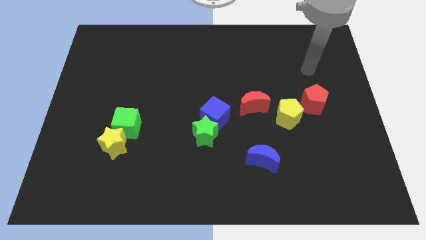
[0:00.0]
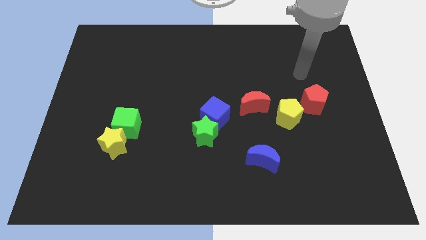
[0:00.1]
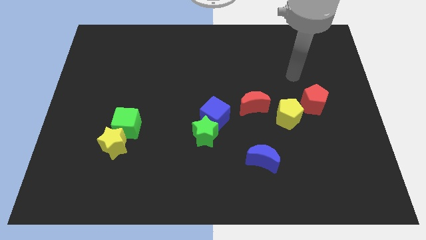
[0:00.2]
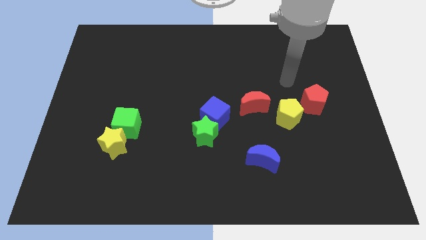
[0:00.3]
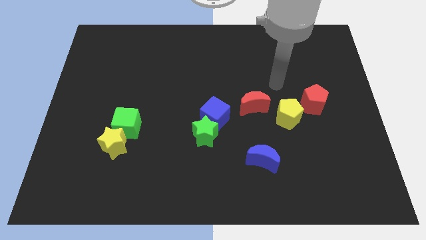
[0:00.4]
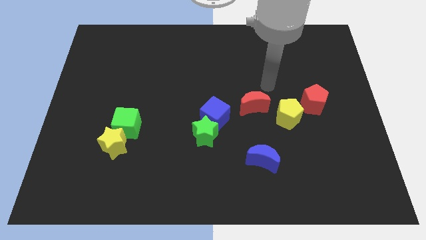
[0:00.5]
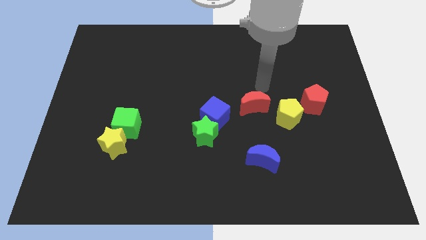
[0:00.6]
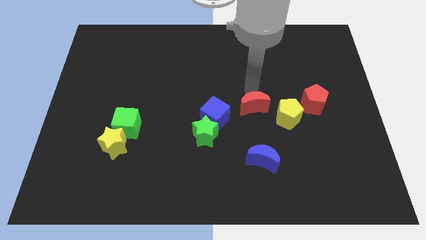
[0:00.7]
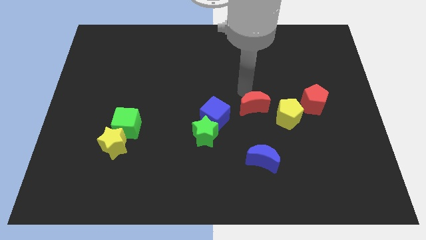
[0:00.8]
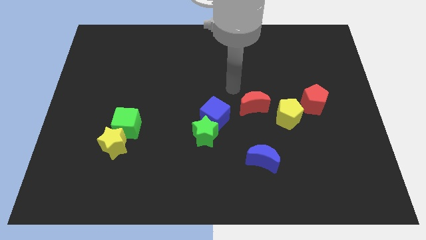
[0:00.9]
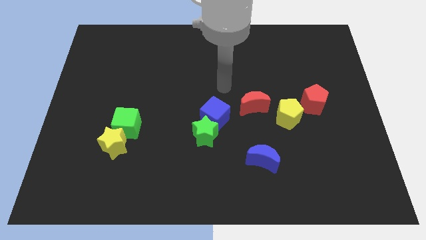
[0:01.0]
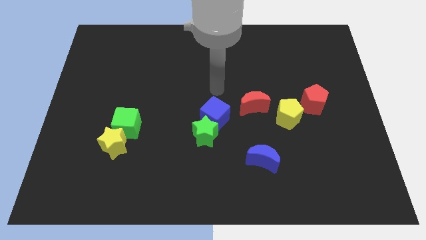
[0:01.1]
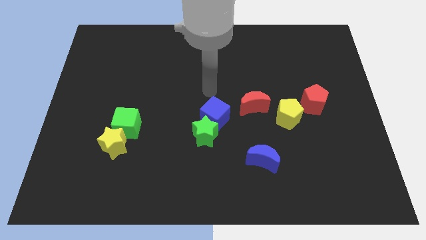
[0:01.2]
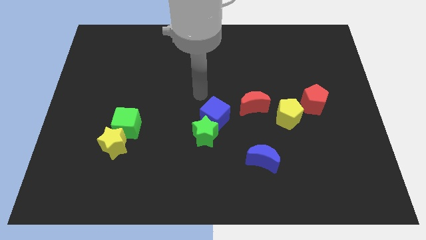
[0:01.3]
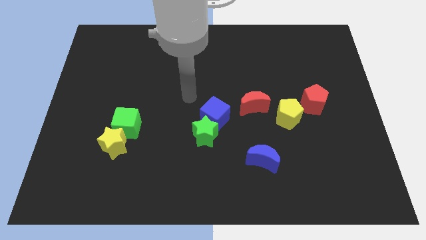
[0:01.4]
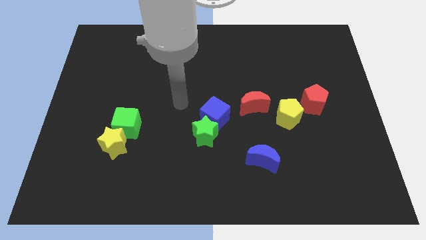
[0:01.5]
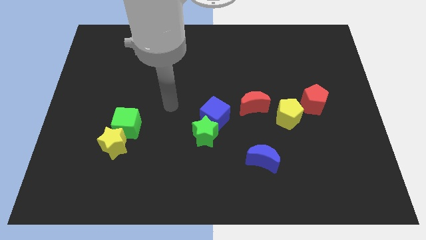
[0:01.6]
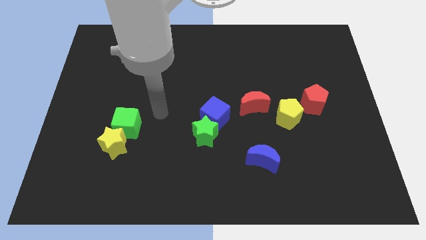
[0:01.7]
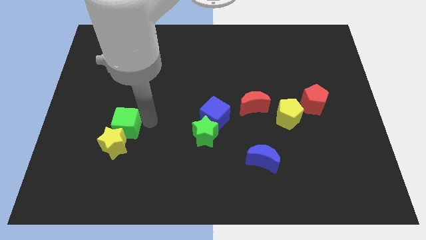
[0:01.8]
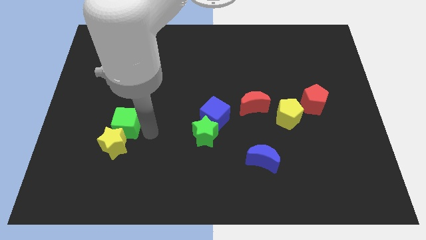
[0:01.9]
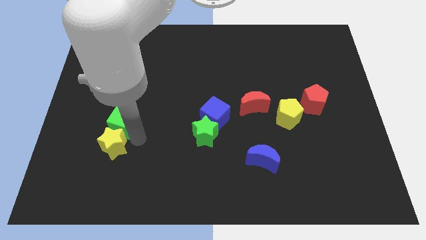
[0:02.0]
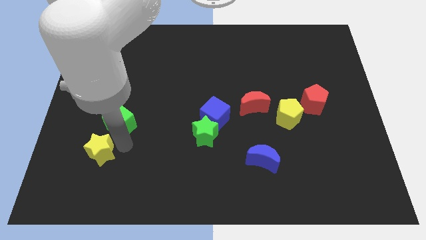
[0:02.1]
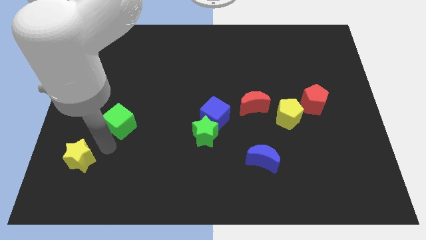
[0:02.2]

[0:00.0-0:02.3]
move the green cube away from the yellow star

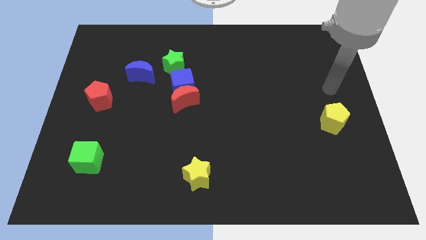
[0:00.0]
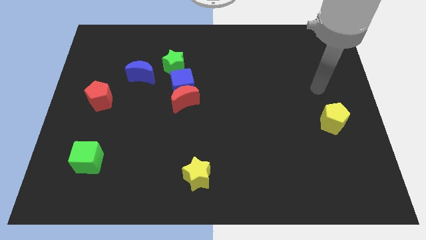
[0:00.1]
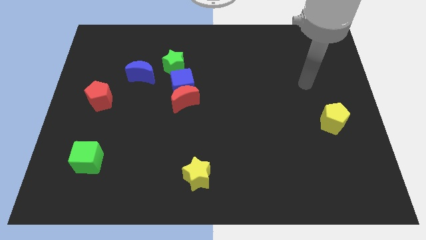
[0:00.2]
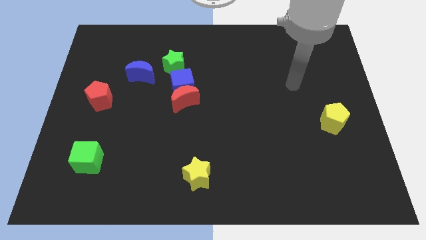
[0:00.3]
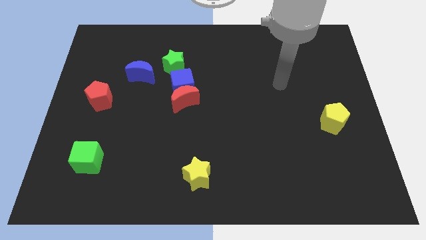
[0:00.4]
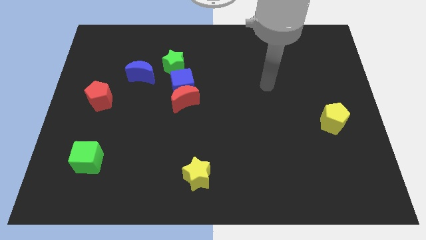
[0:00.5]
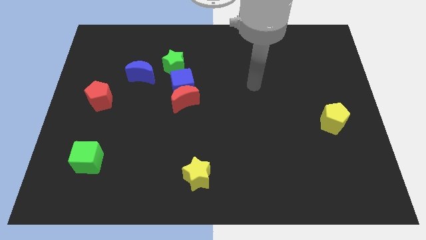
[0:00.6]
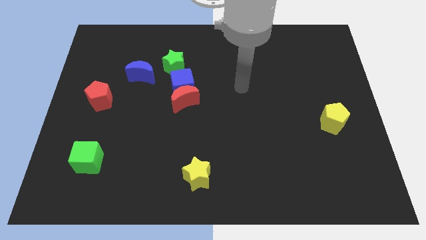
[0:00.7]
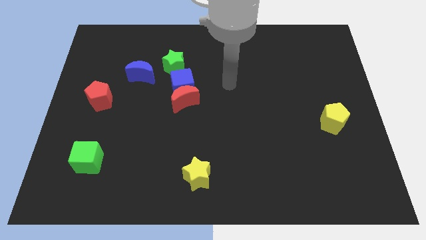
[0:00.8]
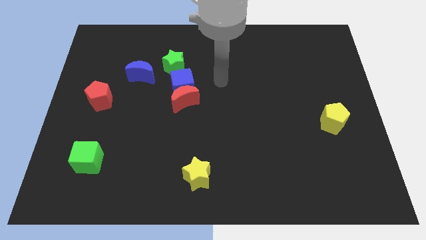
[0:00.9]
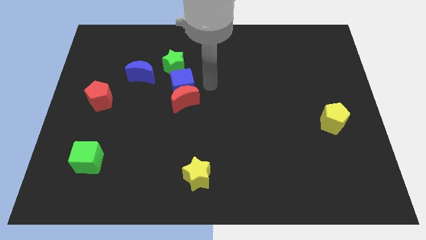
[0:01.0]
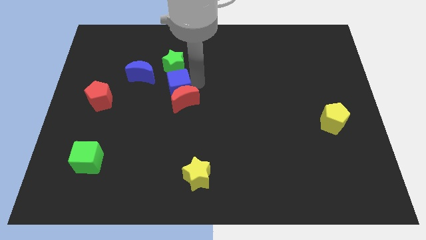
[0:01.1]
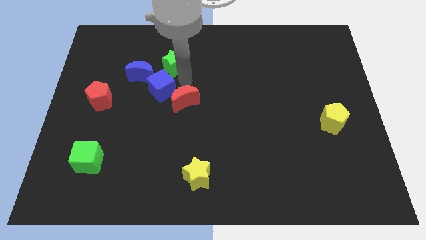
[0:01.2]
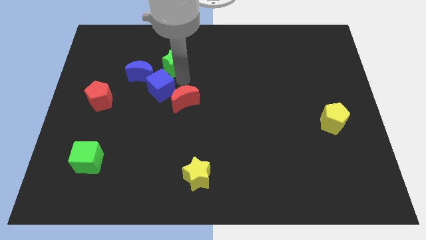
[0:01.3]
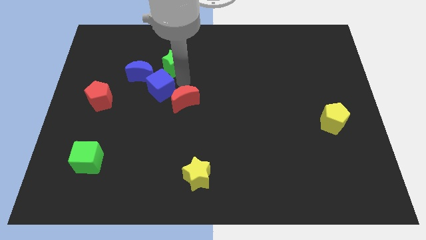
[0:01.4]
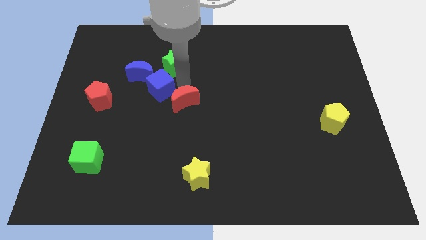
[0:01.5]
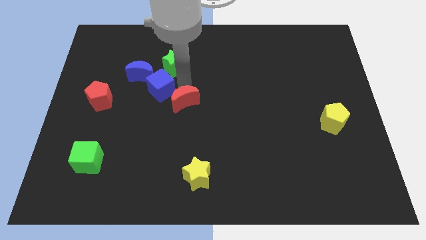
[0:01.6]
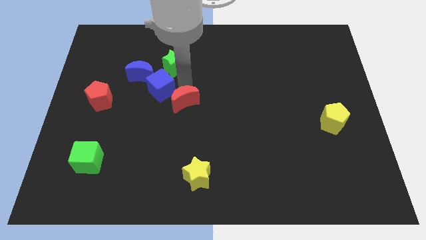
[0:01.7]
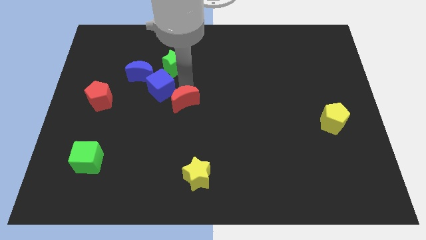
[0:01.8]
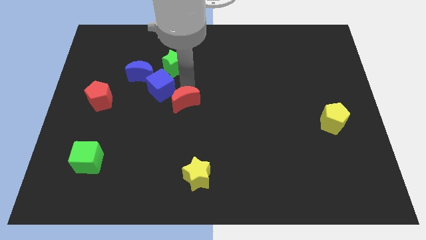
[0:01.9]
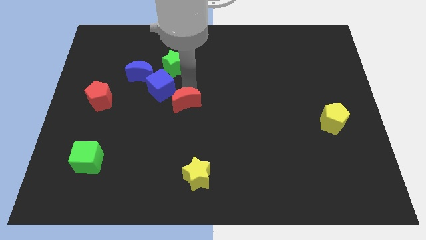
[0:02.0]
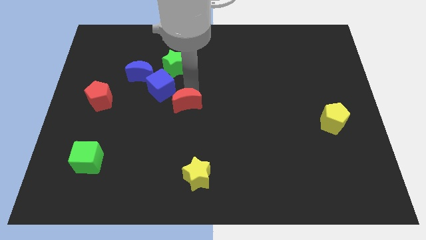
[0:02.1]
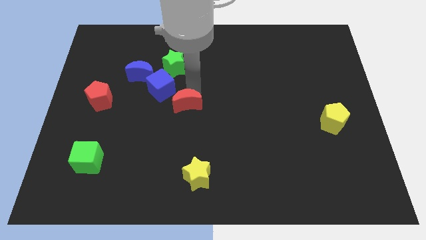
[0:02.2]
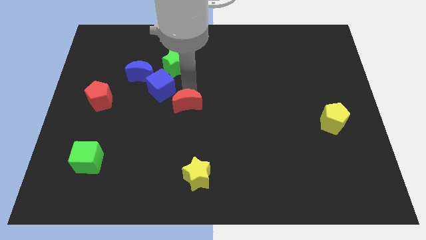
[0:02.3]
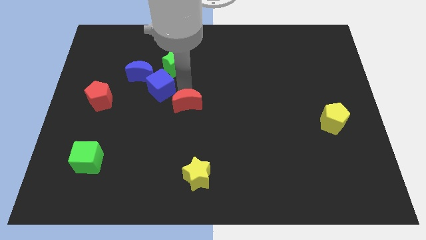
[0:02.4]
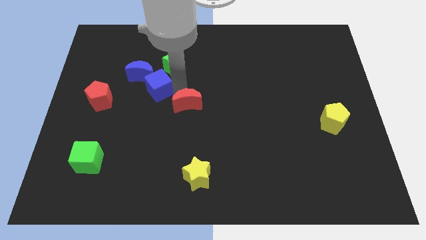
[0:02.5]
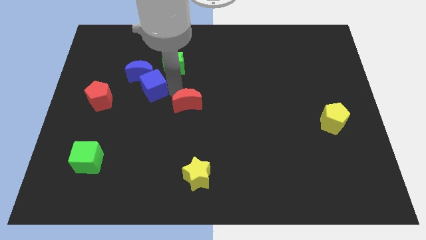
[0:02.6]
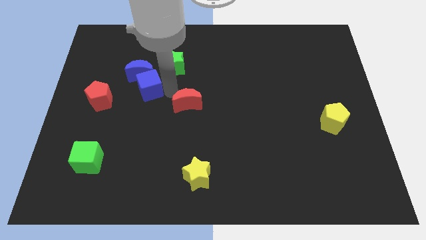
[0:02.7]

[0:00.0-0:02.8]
separate the red moon from the blue cube

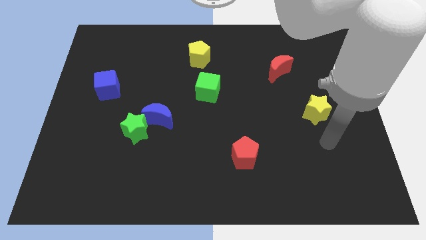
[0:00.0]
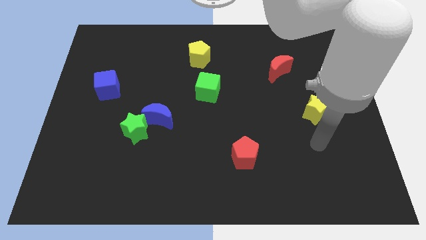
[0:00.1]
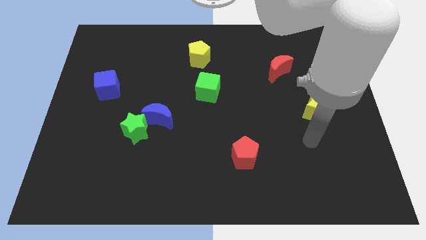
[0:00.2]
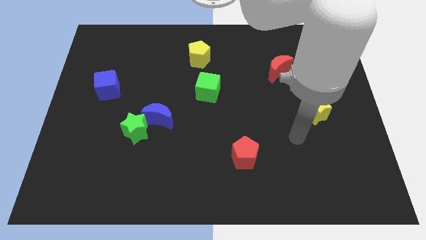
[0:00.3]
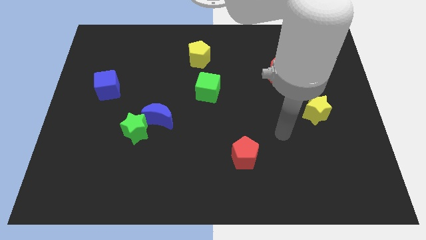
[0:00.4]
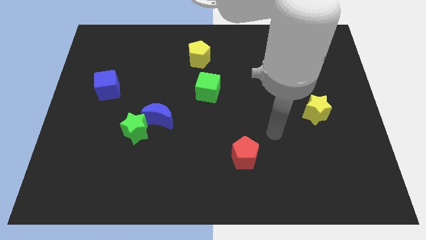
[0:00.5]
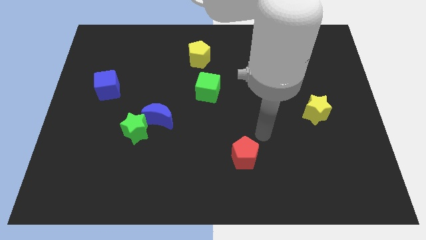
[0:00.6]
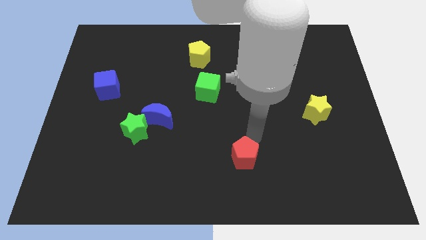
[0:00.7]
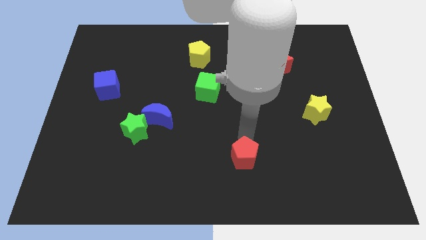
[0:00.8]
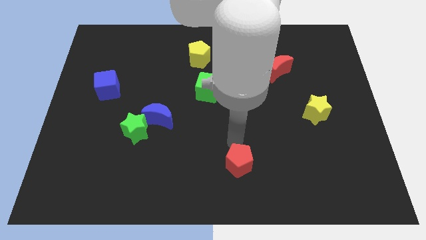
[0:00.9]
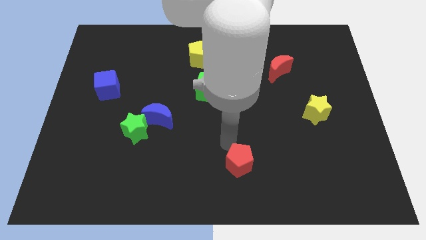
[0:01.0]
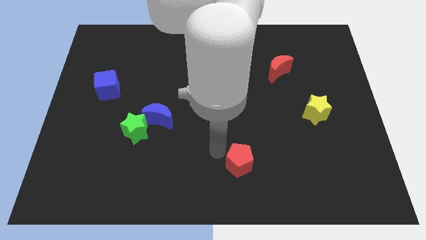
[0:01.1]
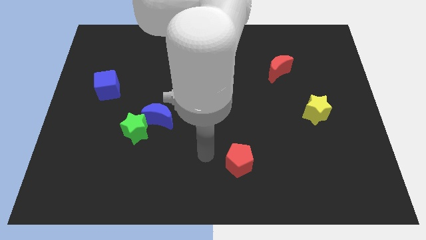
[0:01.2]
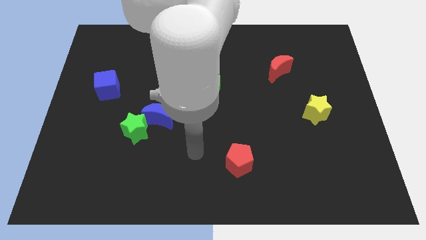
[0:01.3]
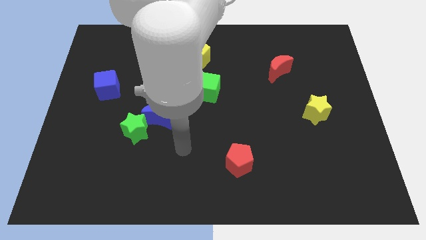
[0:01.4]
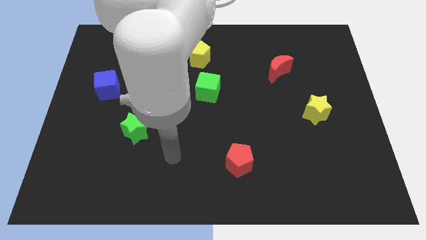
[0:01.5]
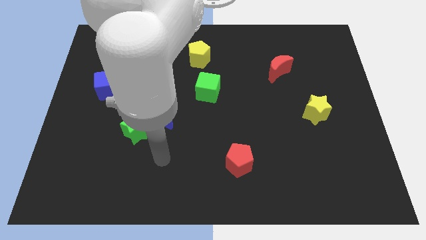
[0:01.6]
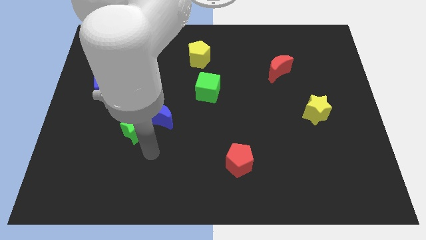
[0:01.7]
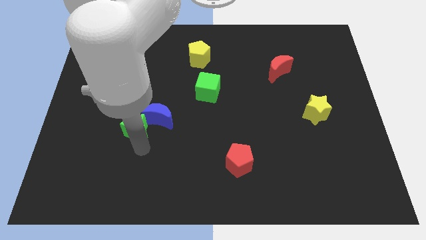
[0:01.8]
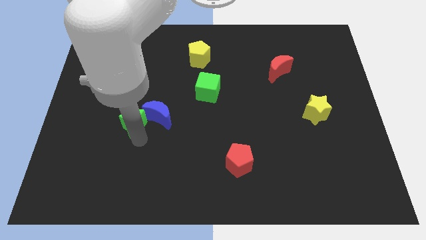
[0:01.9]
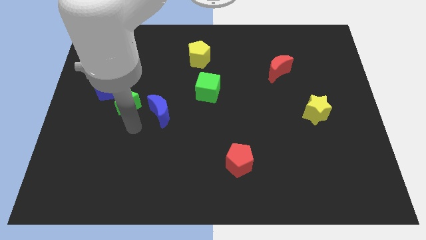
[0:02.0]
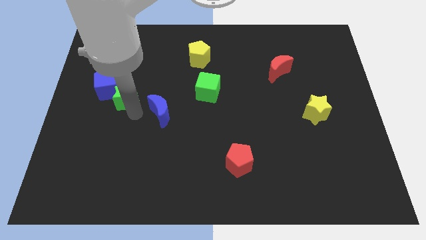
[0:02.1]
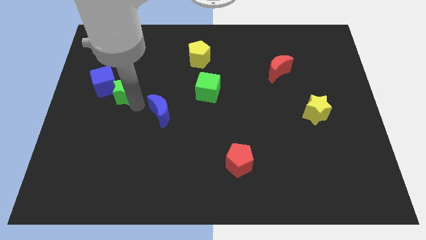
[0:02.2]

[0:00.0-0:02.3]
pull the blue moon apart from the green star

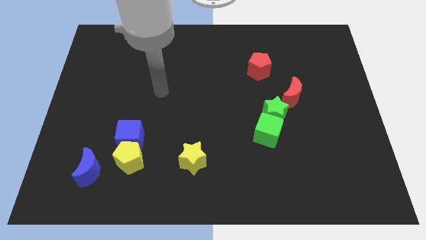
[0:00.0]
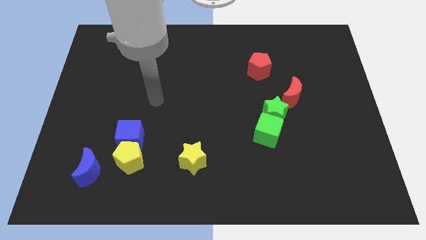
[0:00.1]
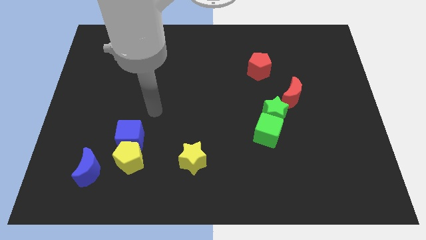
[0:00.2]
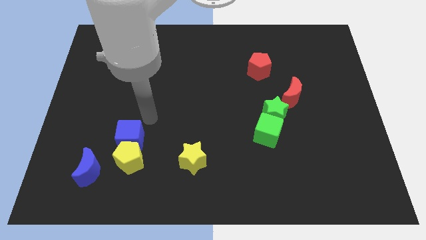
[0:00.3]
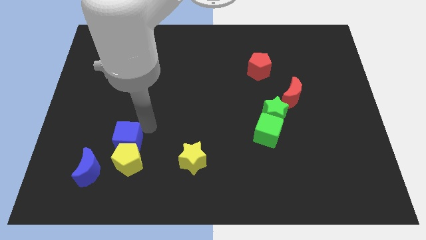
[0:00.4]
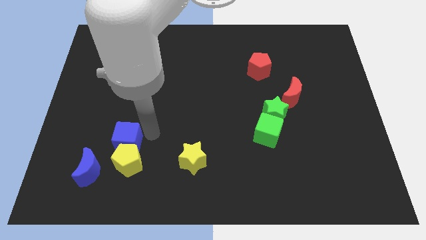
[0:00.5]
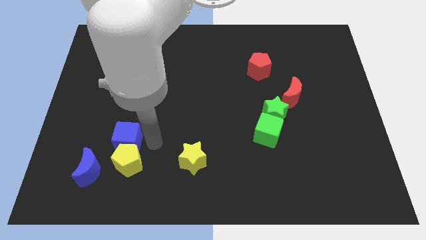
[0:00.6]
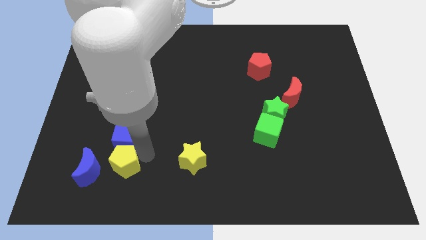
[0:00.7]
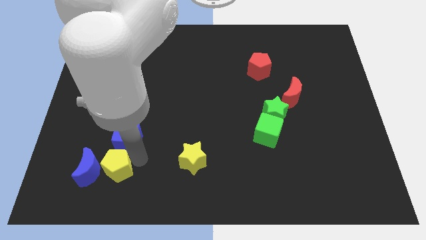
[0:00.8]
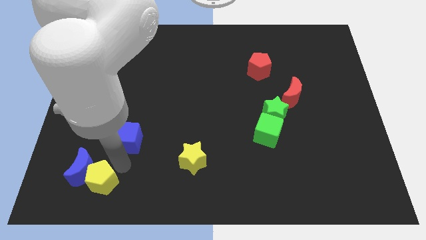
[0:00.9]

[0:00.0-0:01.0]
pull the blue cube apart from the yellow pentagon

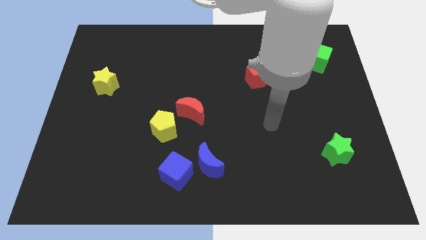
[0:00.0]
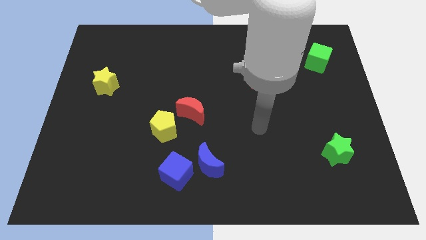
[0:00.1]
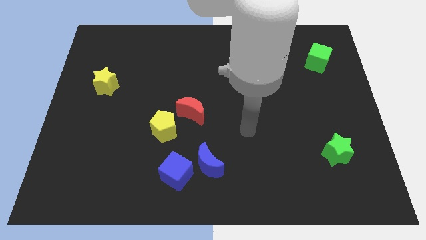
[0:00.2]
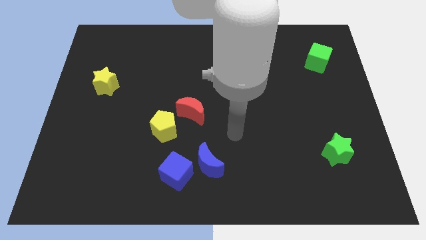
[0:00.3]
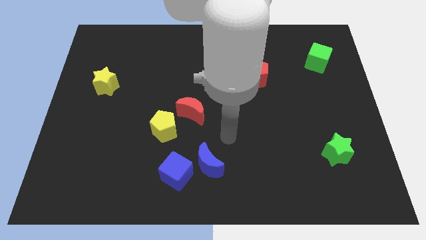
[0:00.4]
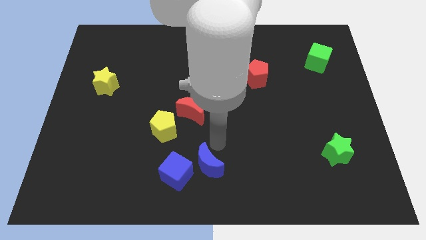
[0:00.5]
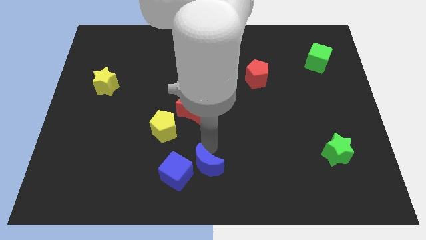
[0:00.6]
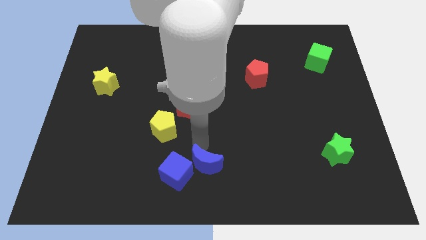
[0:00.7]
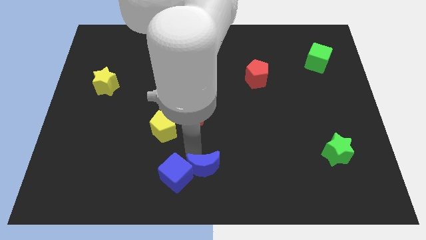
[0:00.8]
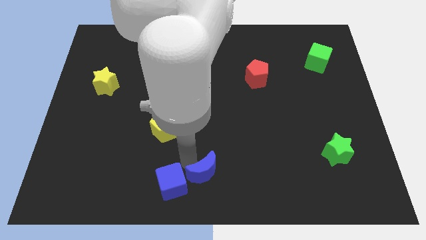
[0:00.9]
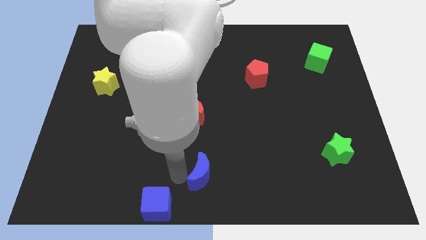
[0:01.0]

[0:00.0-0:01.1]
separate the blue moon from the blue cube
